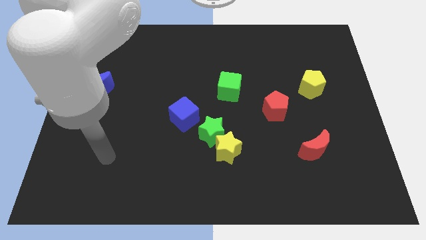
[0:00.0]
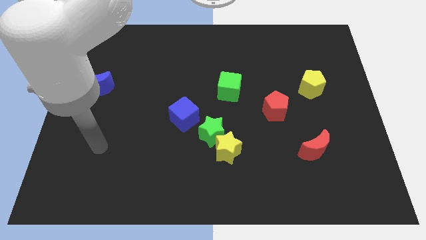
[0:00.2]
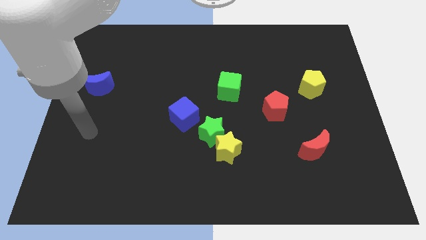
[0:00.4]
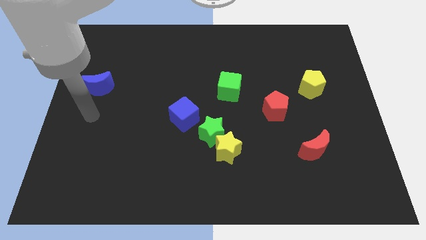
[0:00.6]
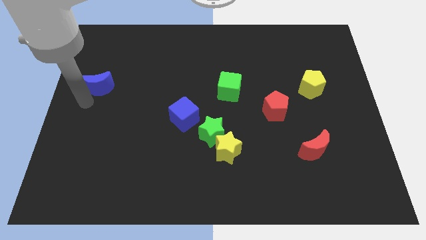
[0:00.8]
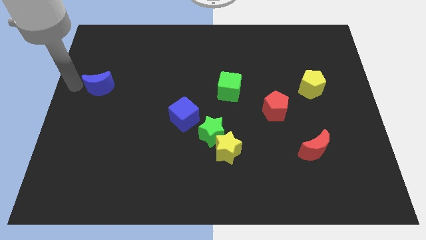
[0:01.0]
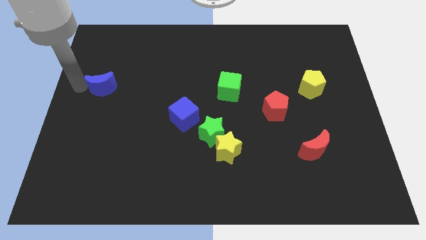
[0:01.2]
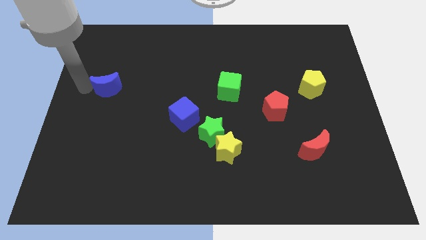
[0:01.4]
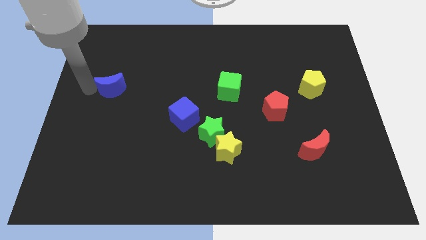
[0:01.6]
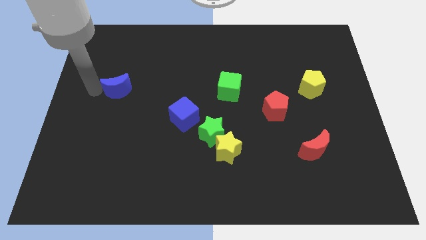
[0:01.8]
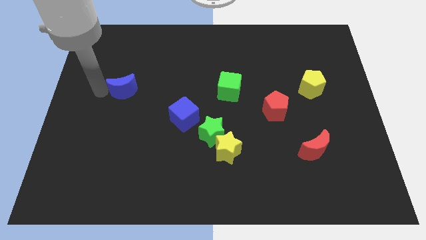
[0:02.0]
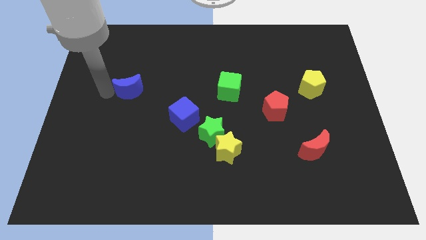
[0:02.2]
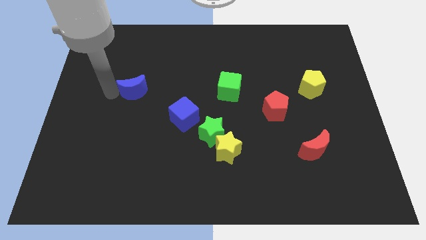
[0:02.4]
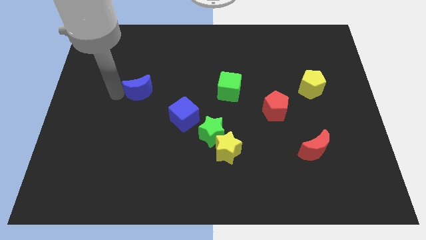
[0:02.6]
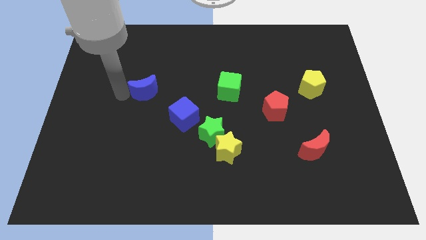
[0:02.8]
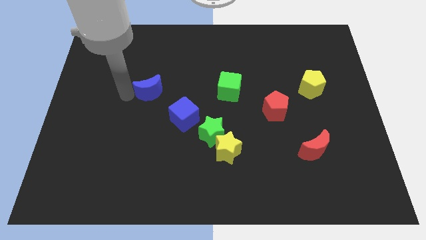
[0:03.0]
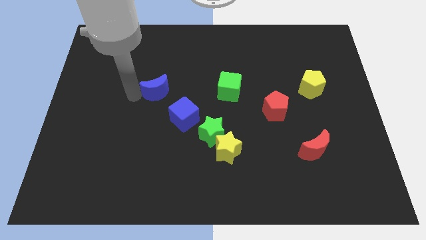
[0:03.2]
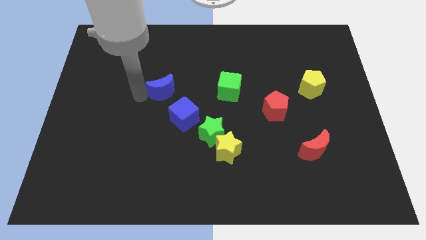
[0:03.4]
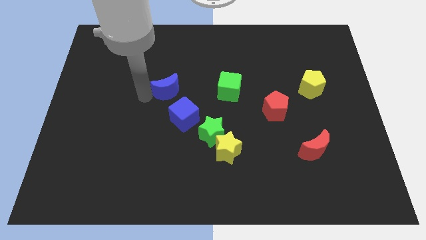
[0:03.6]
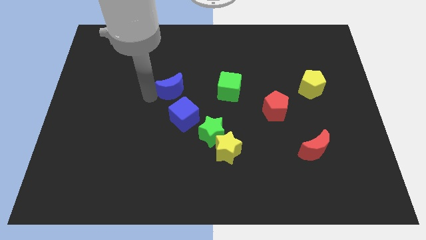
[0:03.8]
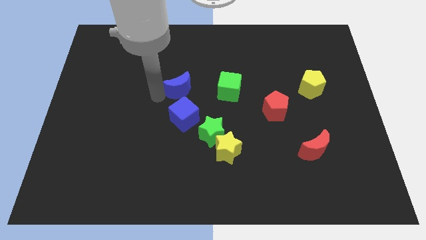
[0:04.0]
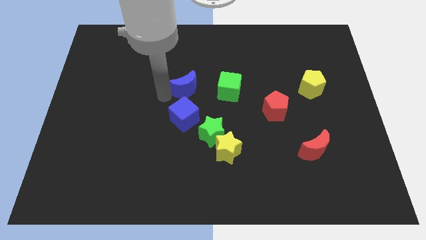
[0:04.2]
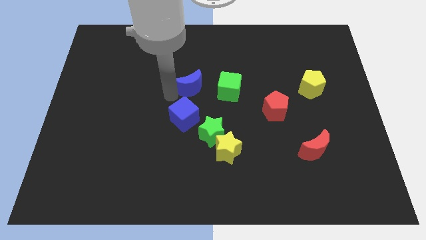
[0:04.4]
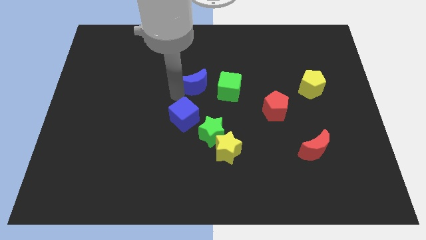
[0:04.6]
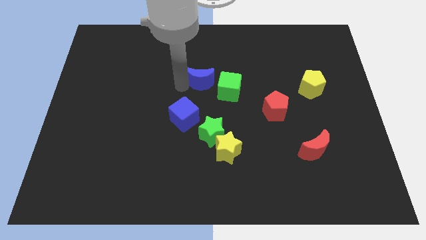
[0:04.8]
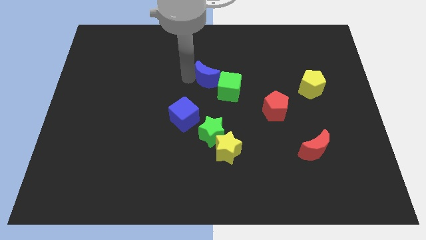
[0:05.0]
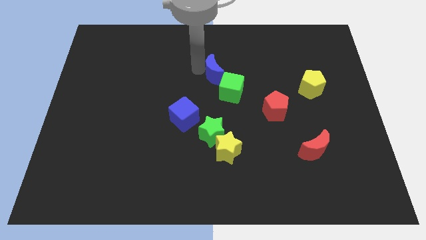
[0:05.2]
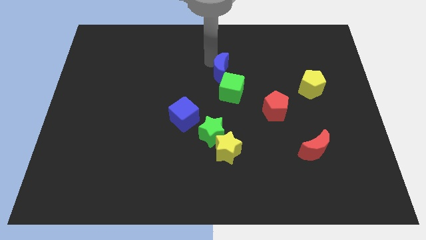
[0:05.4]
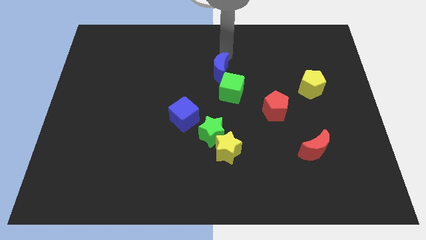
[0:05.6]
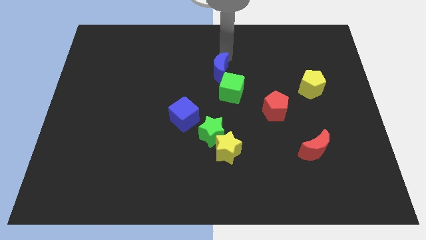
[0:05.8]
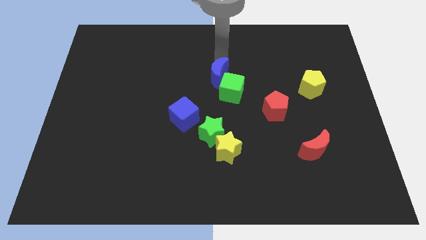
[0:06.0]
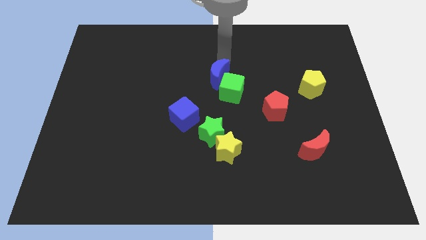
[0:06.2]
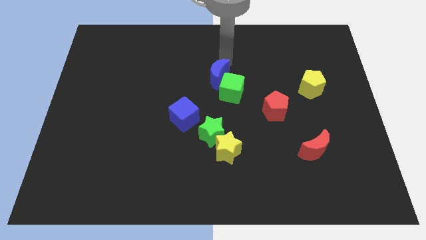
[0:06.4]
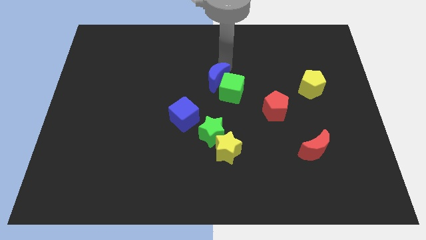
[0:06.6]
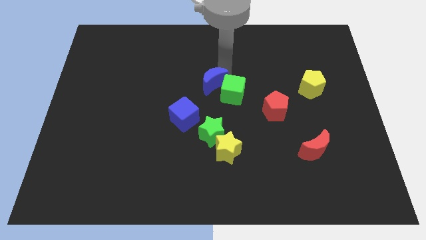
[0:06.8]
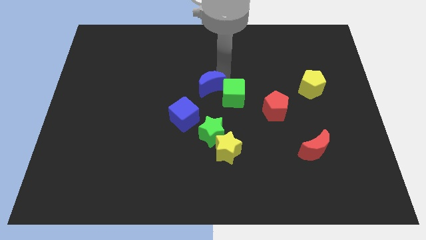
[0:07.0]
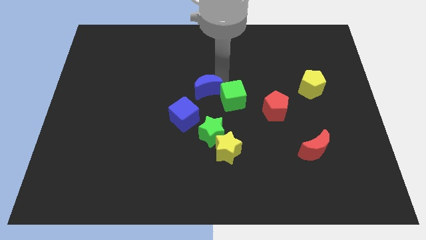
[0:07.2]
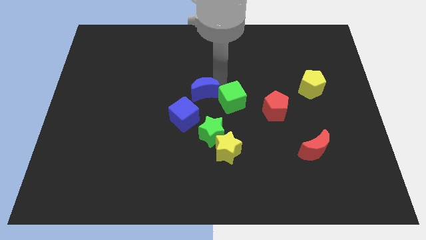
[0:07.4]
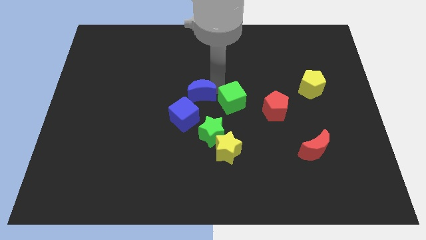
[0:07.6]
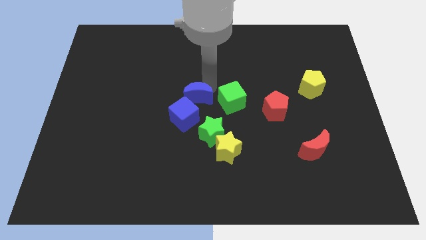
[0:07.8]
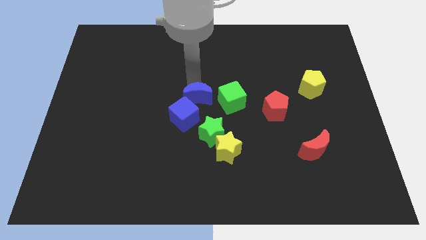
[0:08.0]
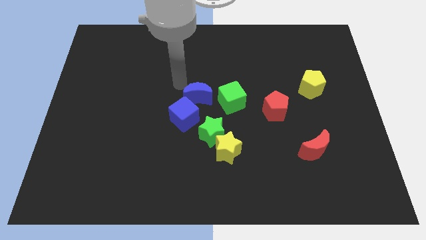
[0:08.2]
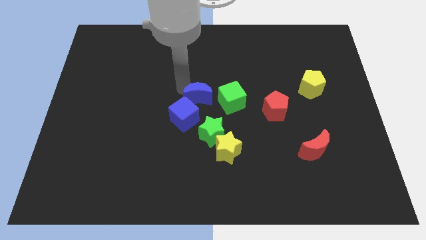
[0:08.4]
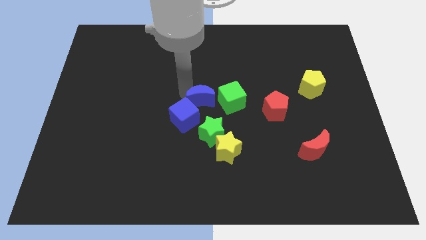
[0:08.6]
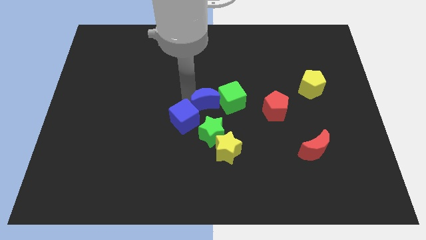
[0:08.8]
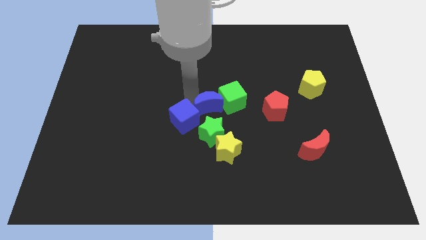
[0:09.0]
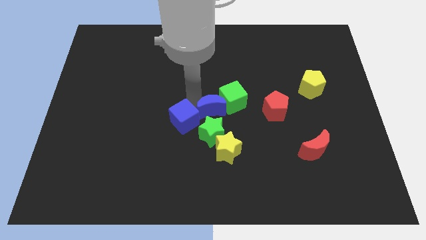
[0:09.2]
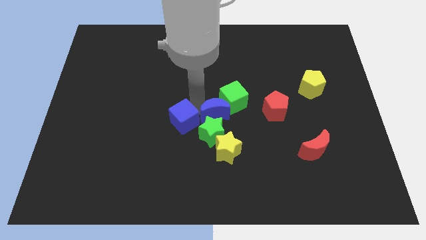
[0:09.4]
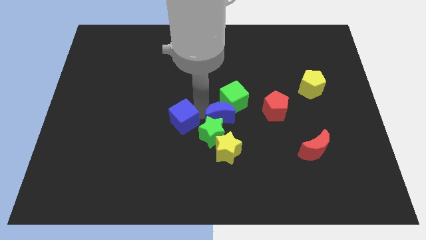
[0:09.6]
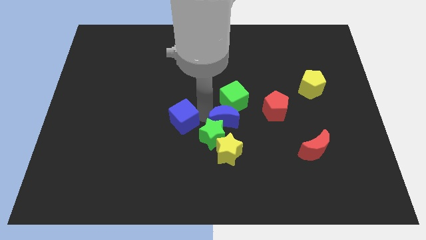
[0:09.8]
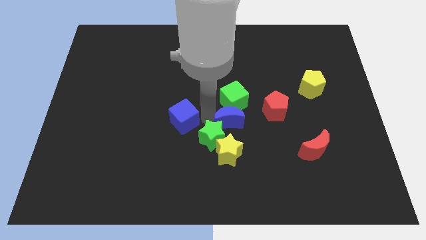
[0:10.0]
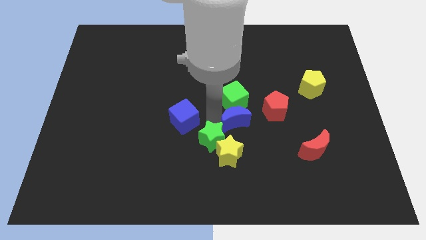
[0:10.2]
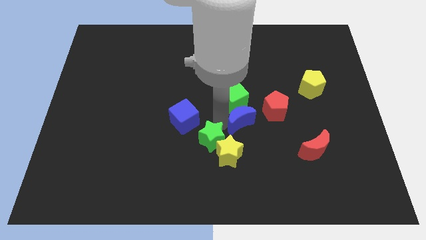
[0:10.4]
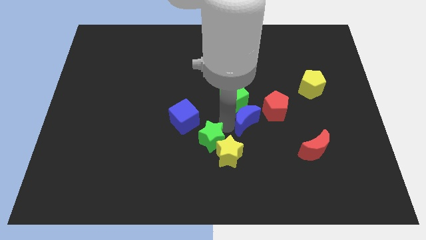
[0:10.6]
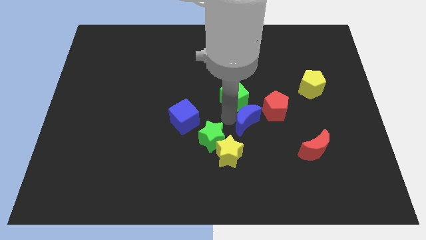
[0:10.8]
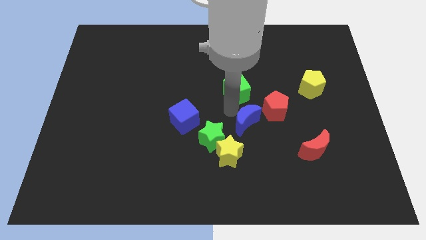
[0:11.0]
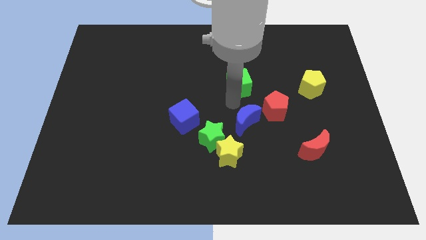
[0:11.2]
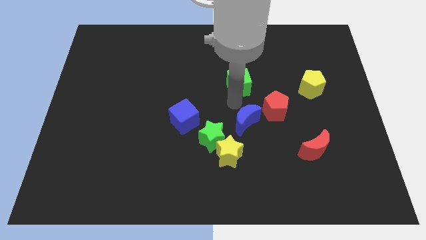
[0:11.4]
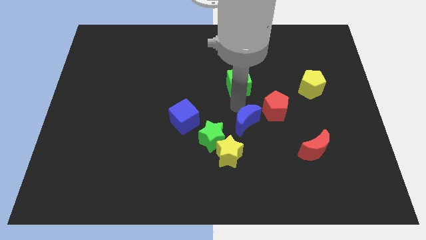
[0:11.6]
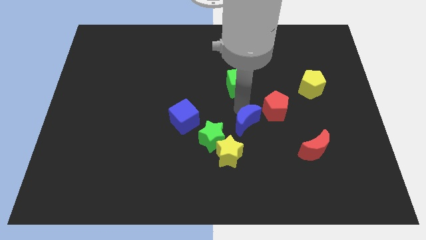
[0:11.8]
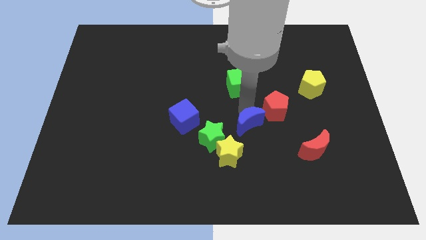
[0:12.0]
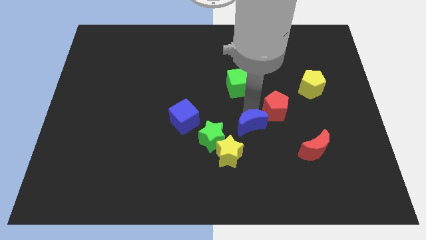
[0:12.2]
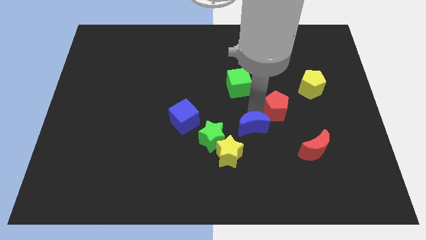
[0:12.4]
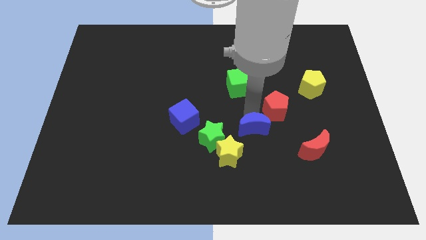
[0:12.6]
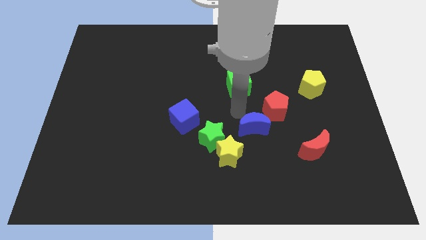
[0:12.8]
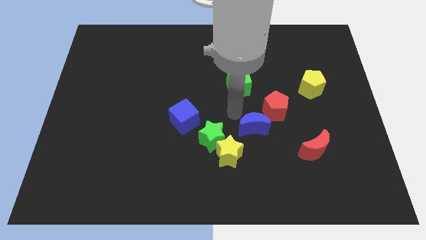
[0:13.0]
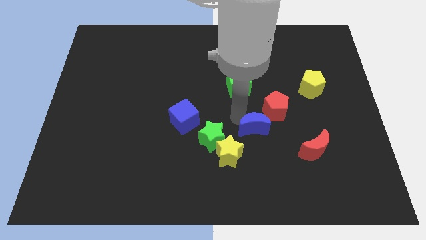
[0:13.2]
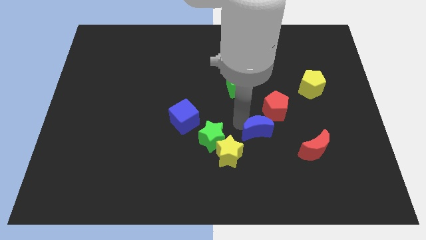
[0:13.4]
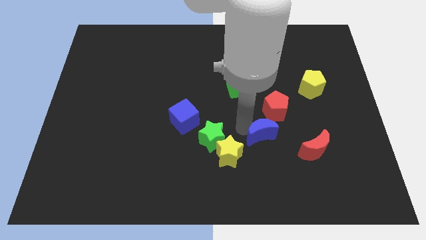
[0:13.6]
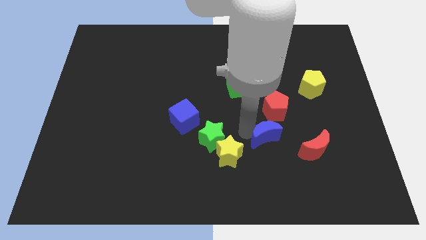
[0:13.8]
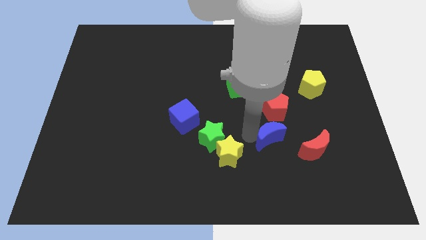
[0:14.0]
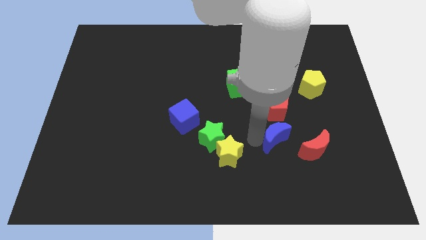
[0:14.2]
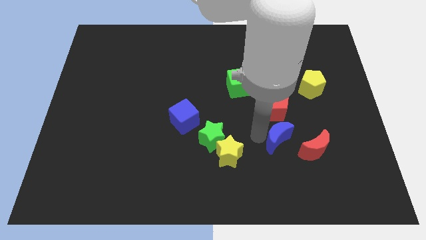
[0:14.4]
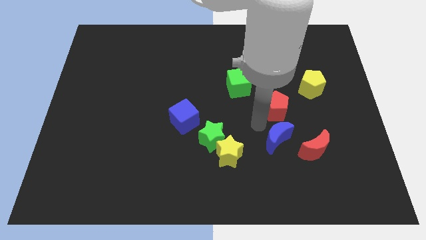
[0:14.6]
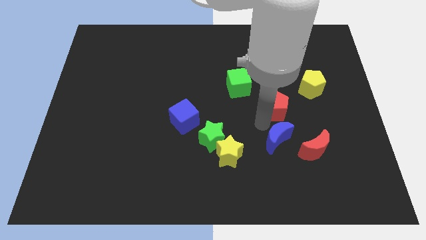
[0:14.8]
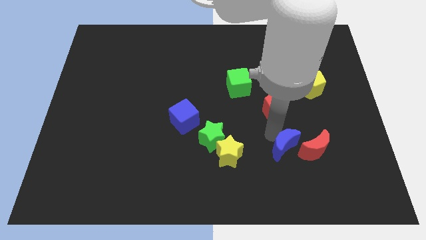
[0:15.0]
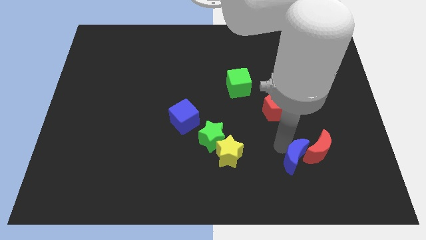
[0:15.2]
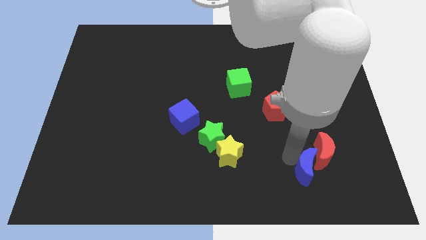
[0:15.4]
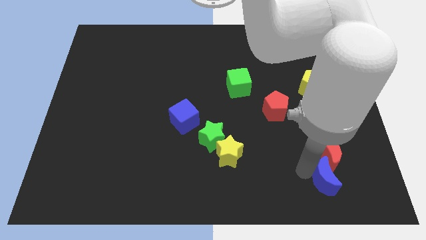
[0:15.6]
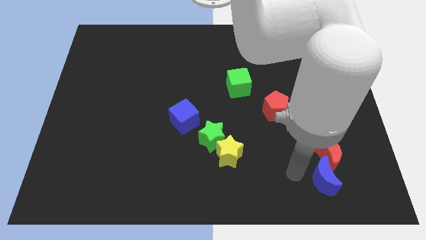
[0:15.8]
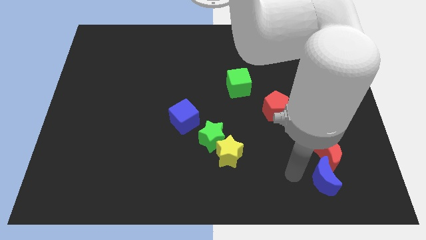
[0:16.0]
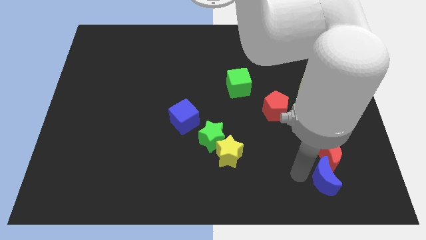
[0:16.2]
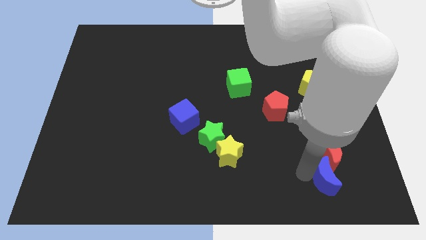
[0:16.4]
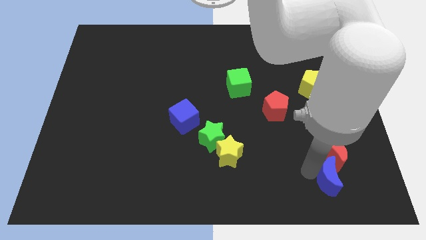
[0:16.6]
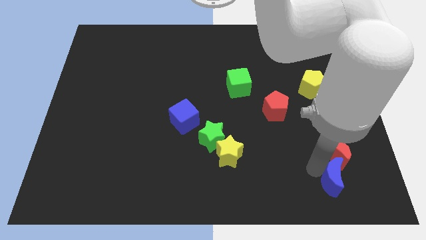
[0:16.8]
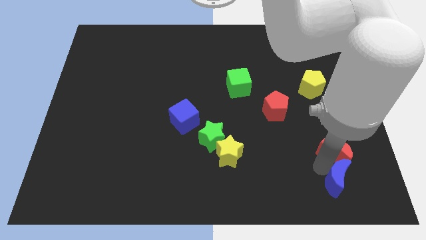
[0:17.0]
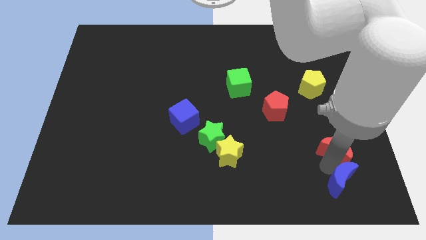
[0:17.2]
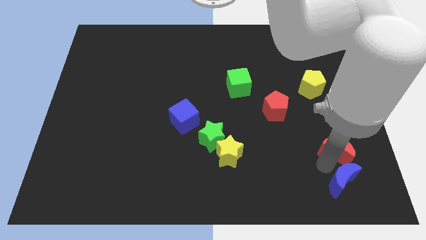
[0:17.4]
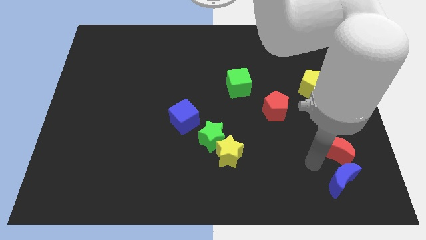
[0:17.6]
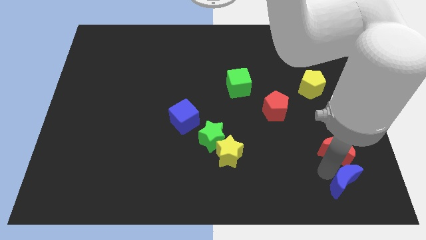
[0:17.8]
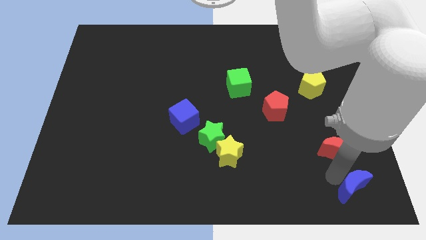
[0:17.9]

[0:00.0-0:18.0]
move the blue moon to the bottom right corner
